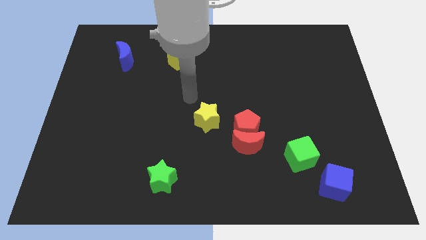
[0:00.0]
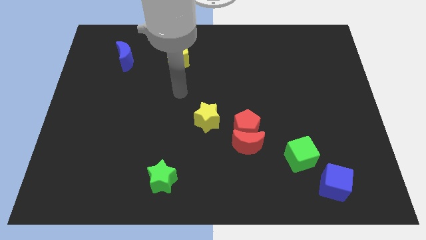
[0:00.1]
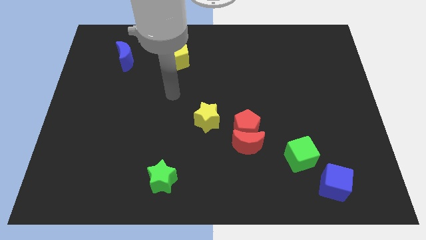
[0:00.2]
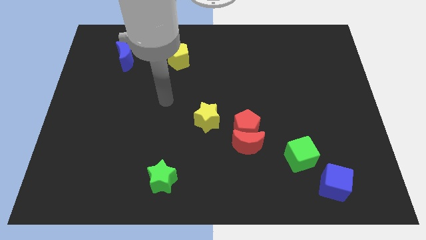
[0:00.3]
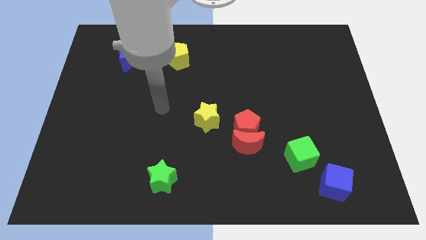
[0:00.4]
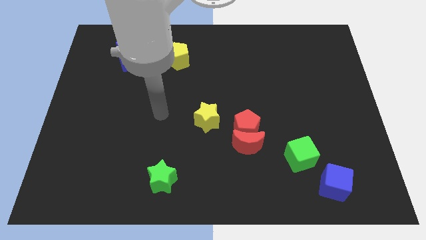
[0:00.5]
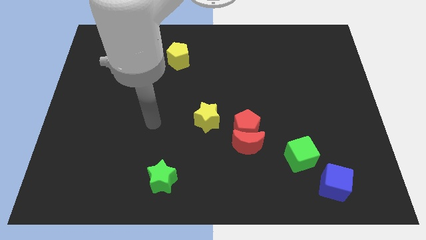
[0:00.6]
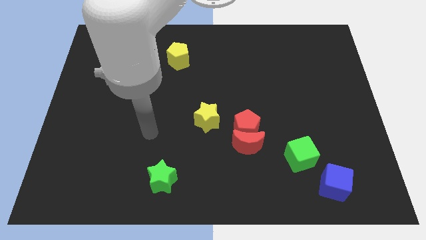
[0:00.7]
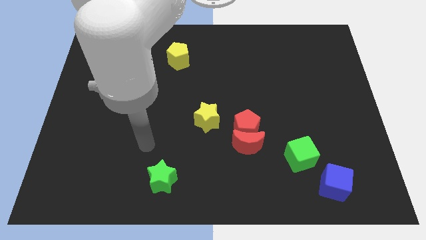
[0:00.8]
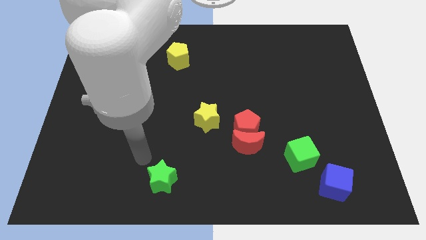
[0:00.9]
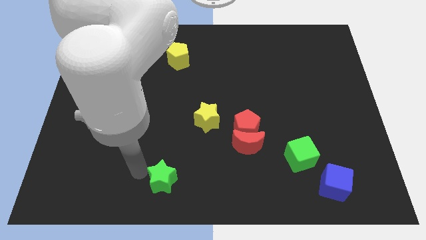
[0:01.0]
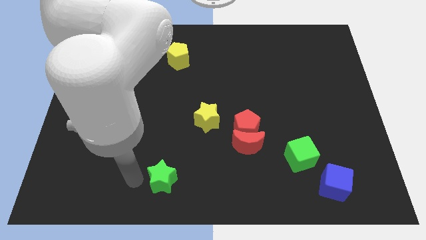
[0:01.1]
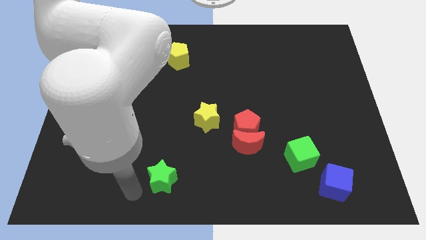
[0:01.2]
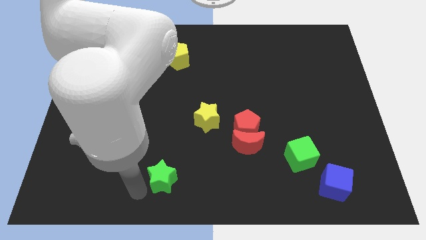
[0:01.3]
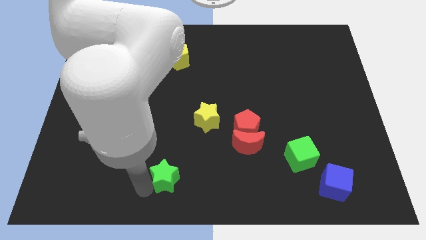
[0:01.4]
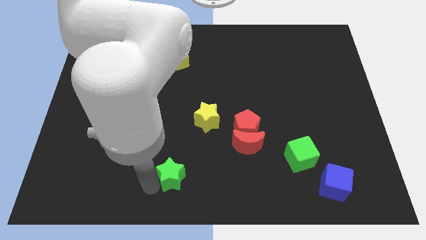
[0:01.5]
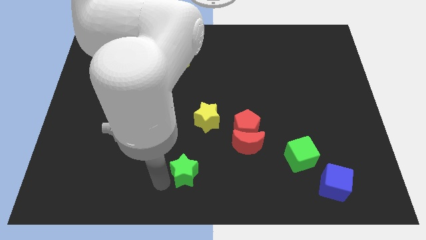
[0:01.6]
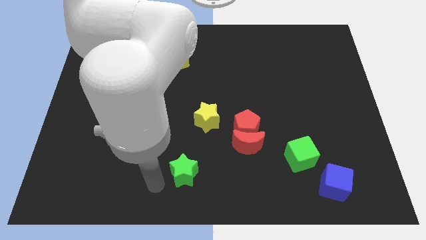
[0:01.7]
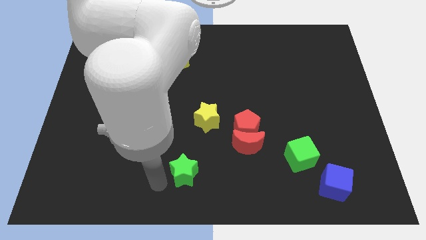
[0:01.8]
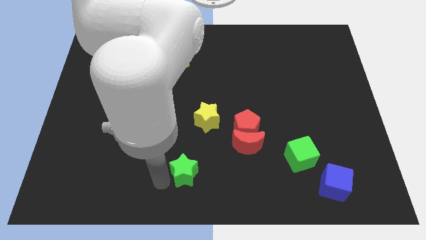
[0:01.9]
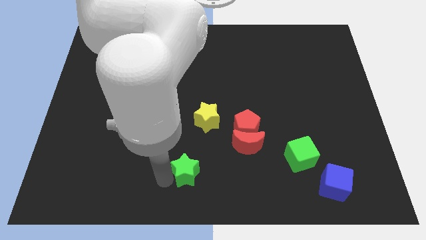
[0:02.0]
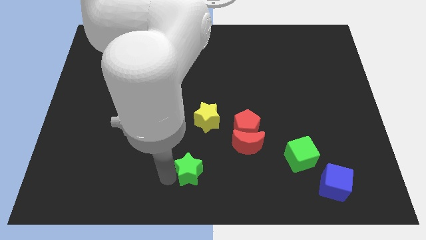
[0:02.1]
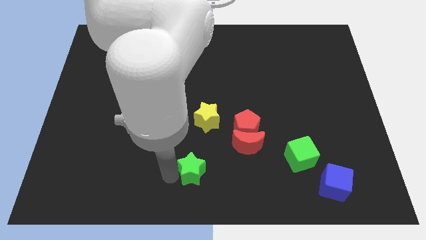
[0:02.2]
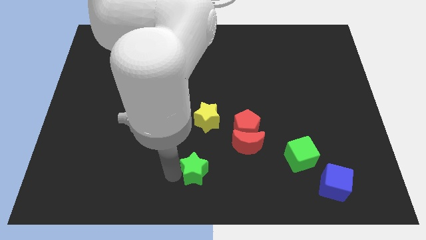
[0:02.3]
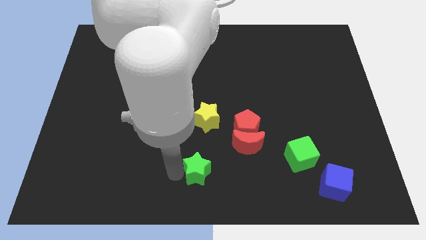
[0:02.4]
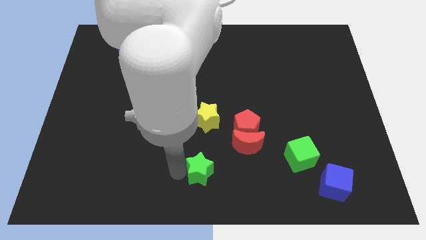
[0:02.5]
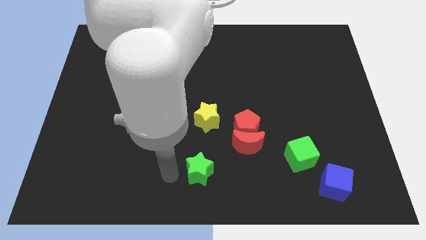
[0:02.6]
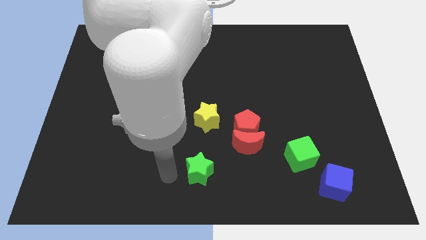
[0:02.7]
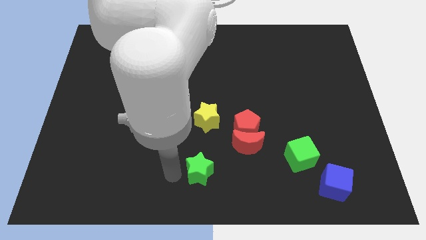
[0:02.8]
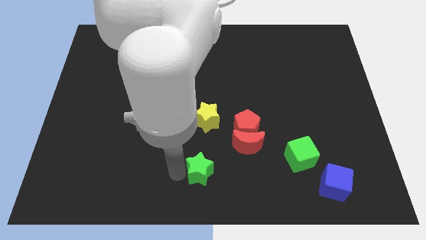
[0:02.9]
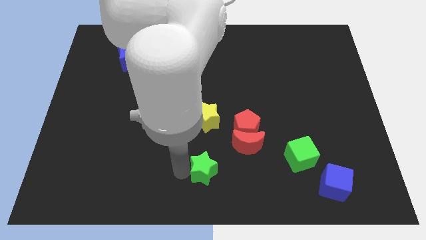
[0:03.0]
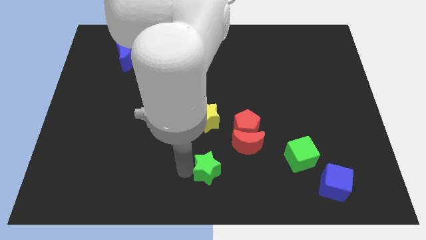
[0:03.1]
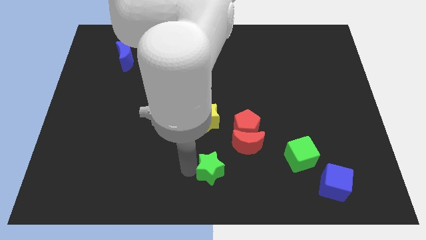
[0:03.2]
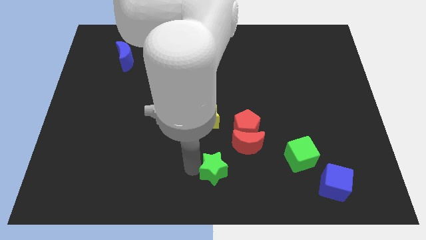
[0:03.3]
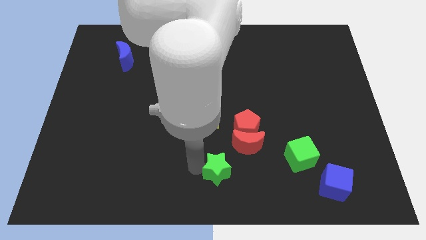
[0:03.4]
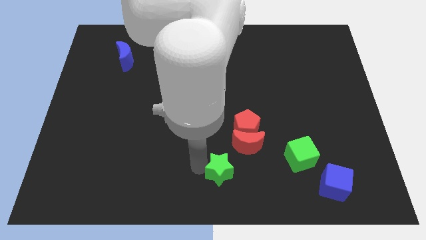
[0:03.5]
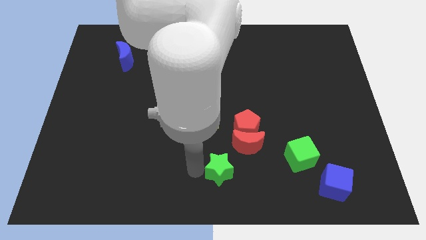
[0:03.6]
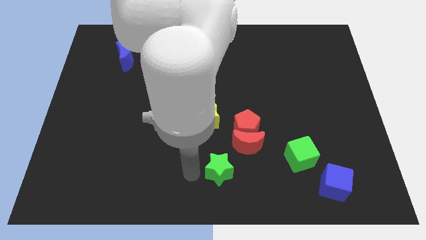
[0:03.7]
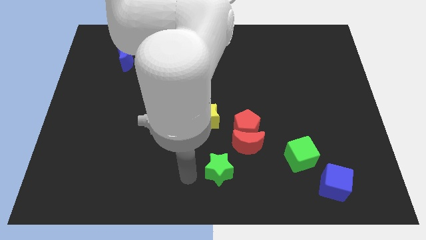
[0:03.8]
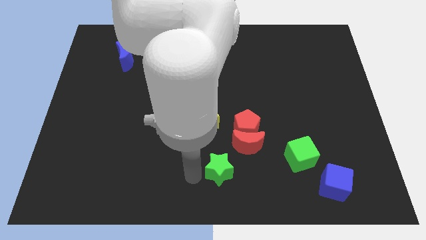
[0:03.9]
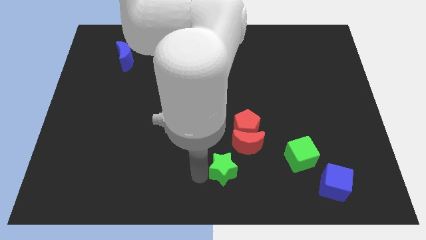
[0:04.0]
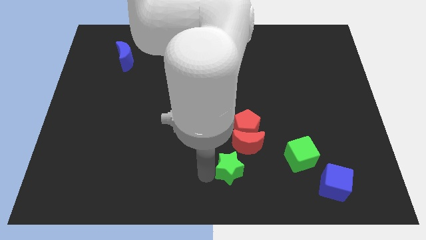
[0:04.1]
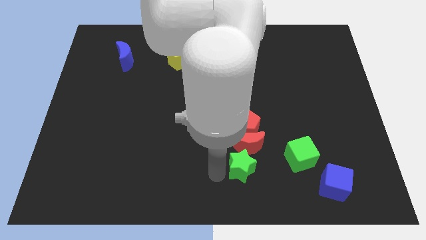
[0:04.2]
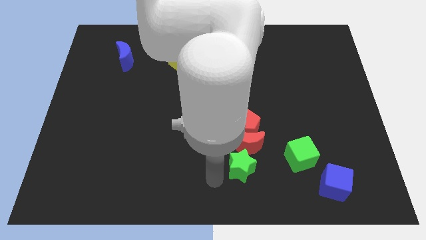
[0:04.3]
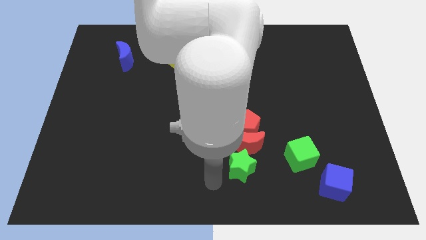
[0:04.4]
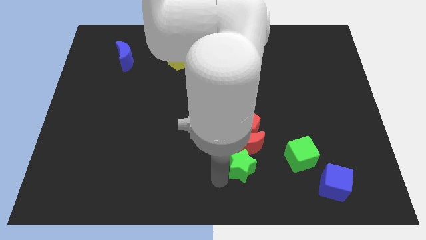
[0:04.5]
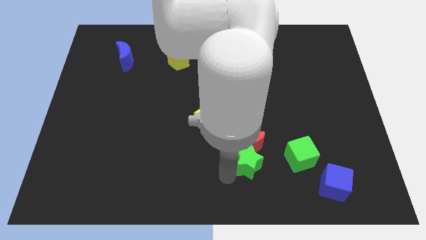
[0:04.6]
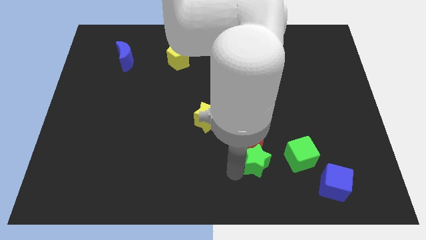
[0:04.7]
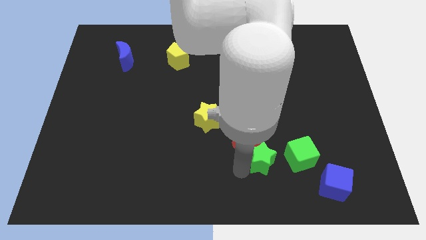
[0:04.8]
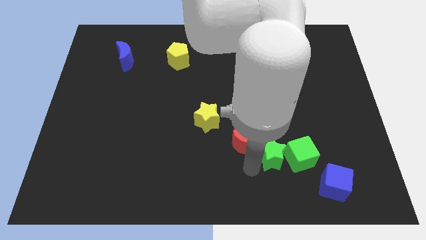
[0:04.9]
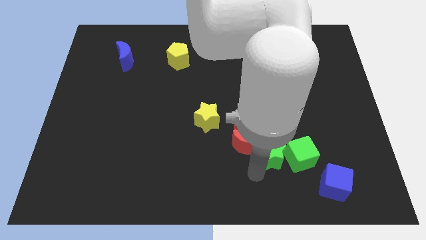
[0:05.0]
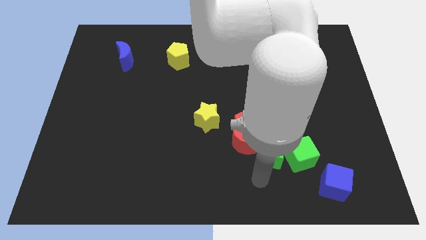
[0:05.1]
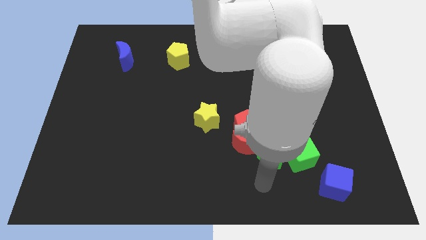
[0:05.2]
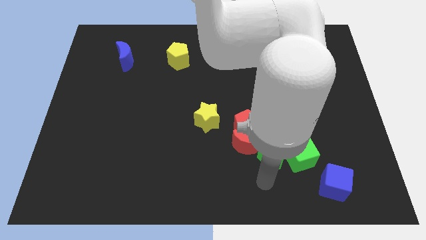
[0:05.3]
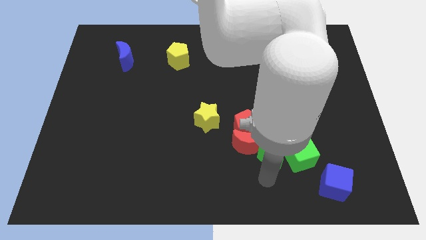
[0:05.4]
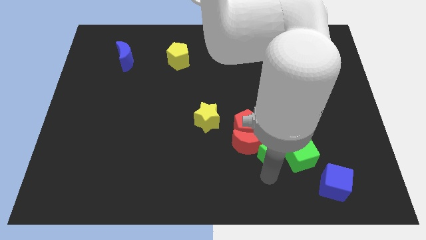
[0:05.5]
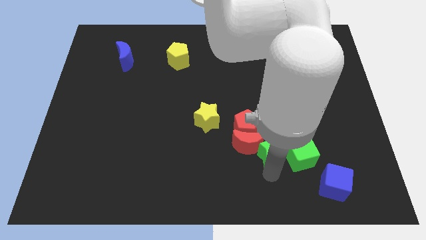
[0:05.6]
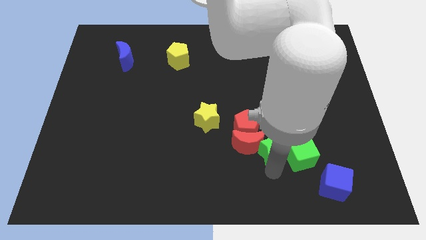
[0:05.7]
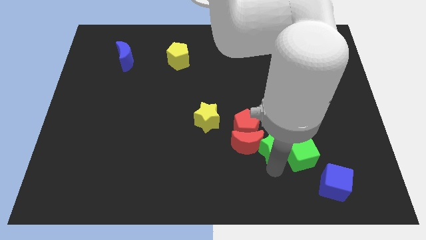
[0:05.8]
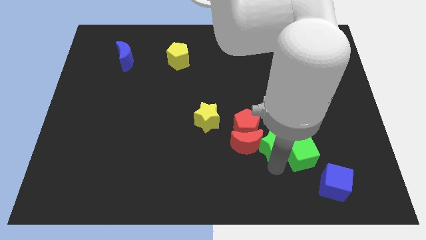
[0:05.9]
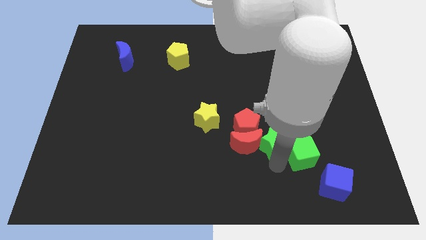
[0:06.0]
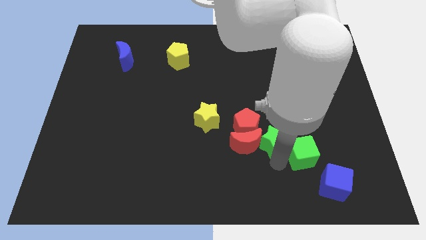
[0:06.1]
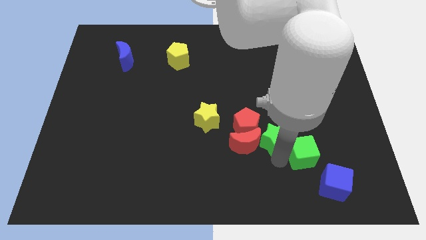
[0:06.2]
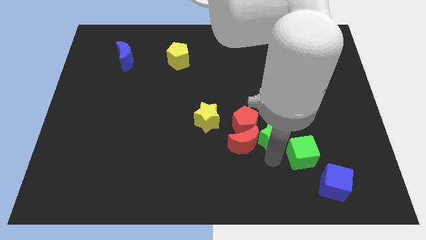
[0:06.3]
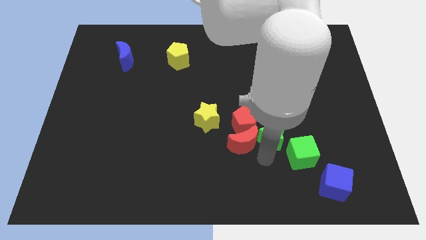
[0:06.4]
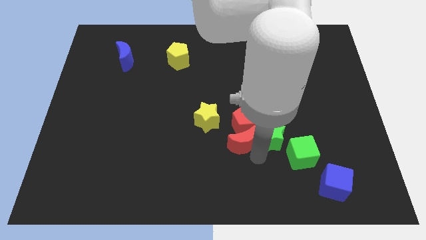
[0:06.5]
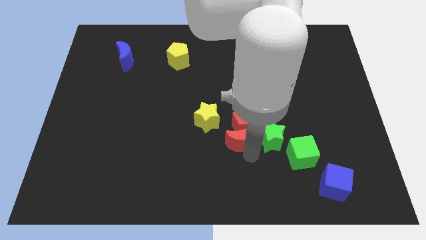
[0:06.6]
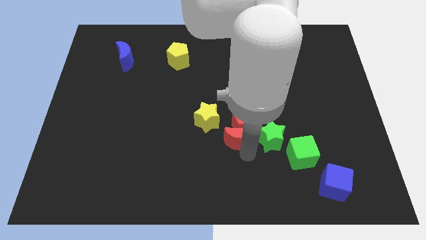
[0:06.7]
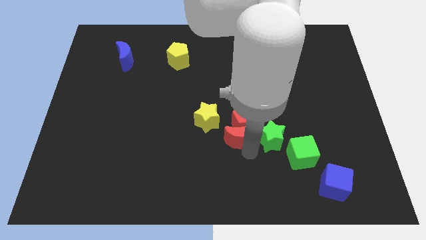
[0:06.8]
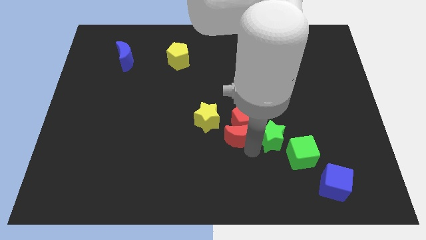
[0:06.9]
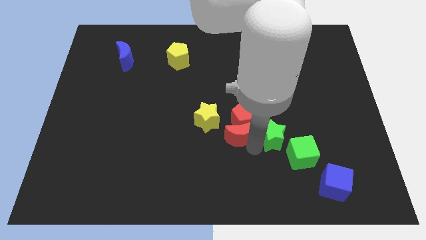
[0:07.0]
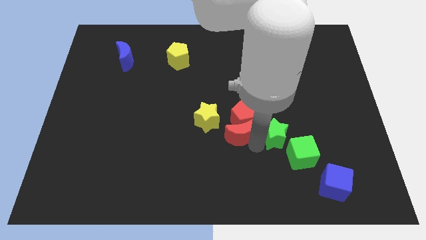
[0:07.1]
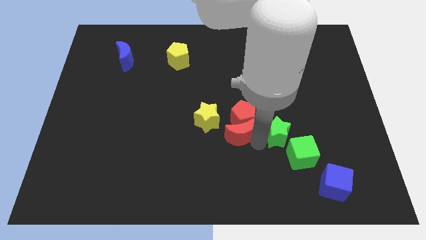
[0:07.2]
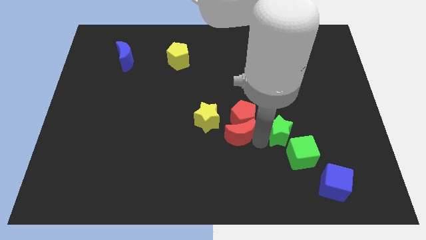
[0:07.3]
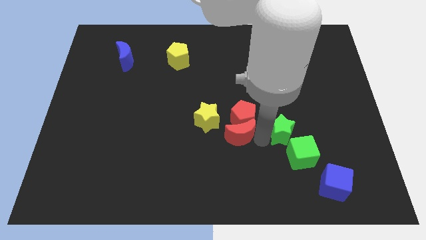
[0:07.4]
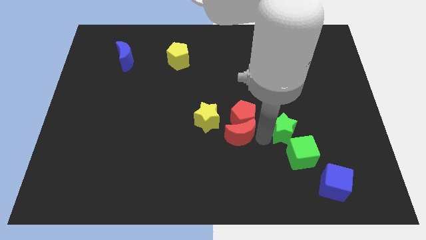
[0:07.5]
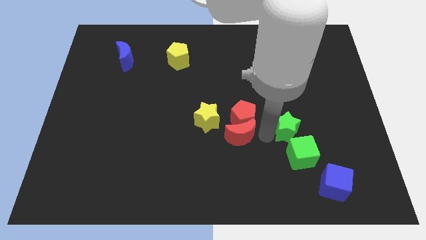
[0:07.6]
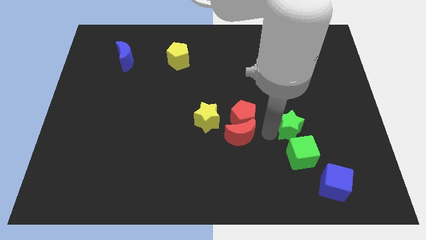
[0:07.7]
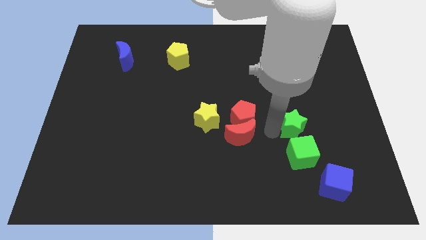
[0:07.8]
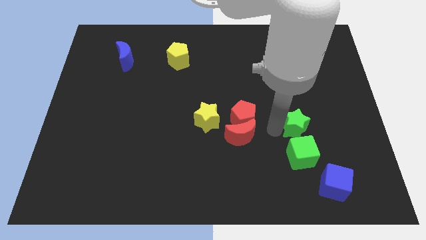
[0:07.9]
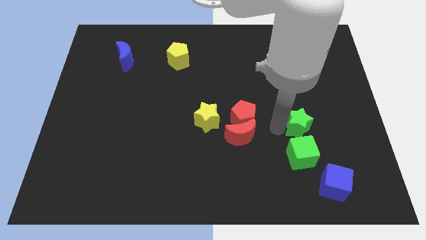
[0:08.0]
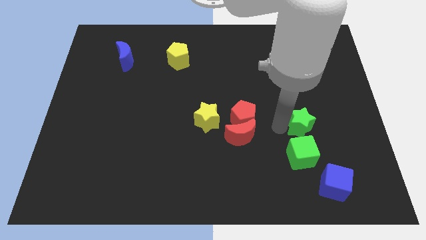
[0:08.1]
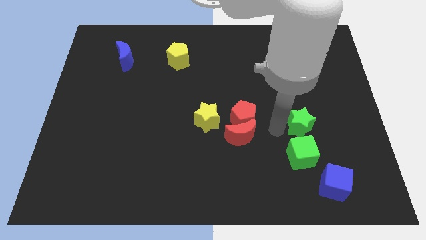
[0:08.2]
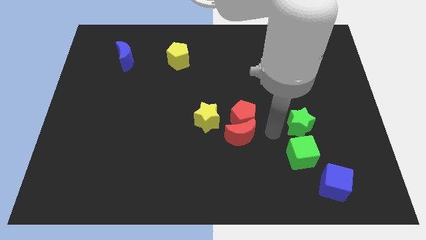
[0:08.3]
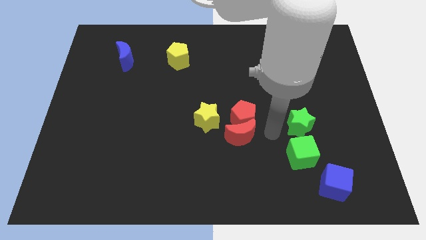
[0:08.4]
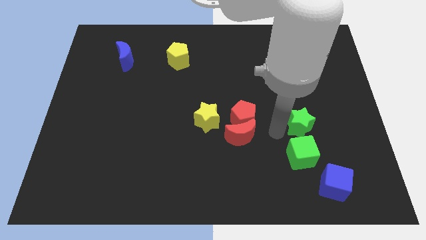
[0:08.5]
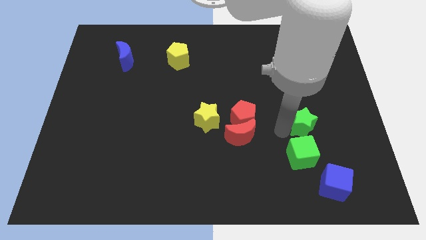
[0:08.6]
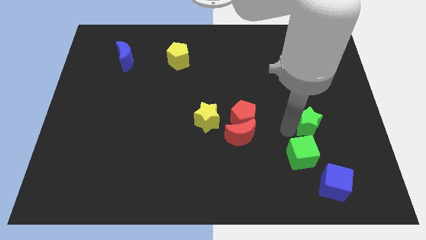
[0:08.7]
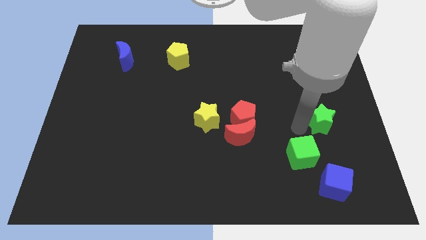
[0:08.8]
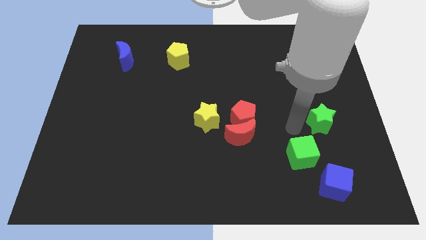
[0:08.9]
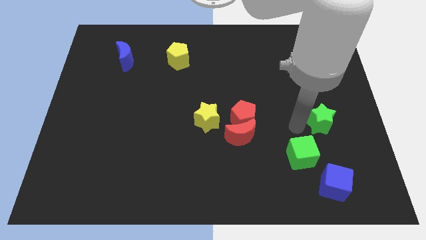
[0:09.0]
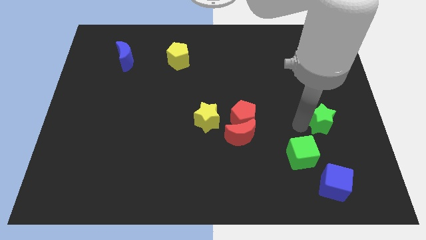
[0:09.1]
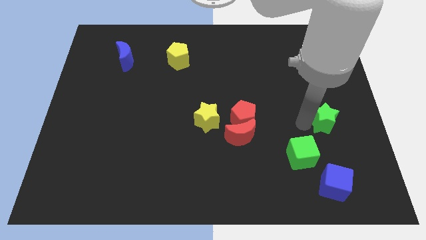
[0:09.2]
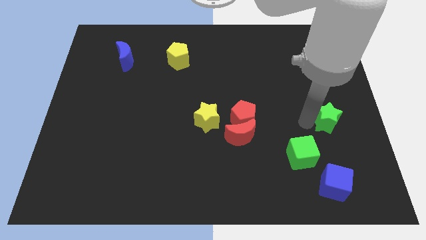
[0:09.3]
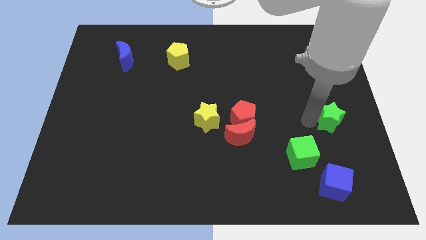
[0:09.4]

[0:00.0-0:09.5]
slide the green star to the right side of the board
